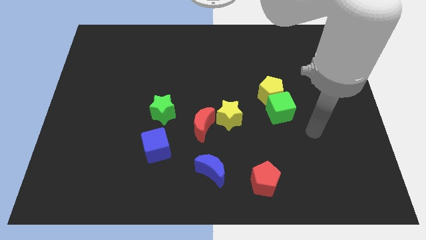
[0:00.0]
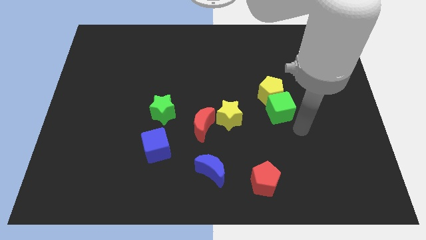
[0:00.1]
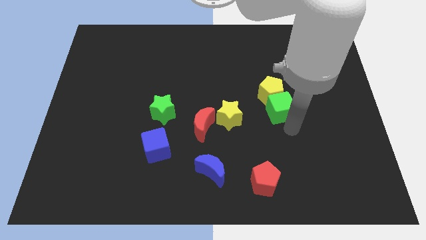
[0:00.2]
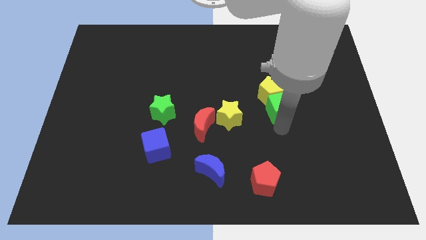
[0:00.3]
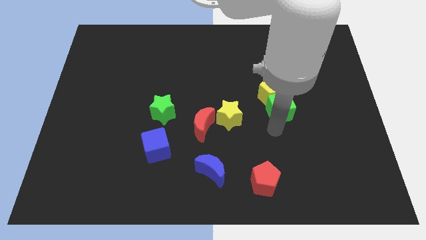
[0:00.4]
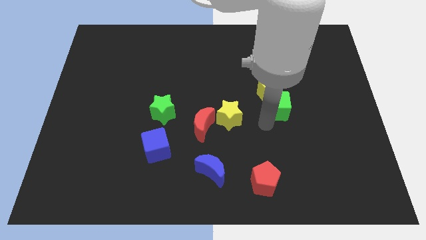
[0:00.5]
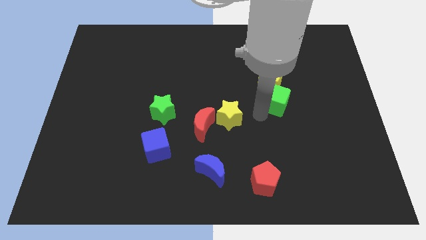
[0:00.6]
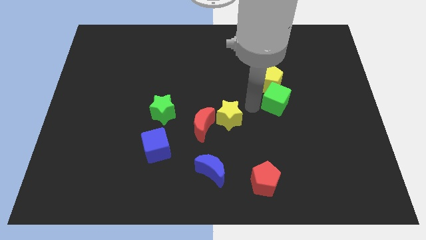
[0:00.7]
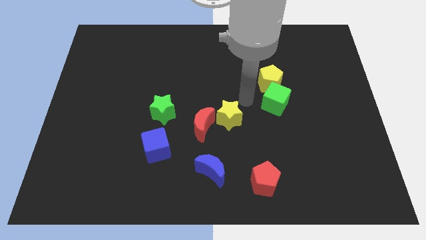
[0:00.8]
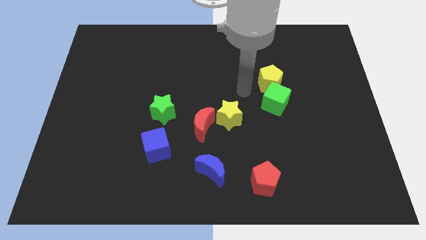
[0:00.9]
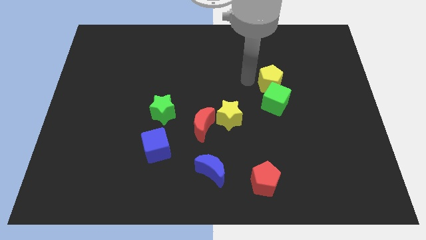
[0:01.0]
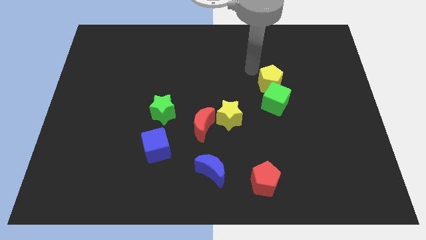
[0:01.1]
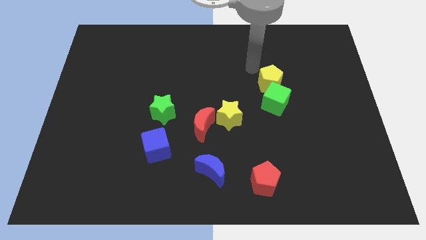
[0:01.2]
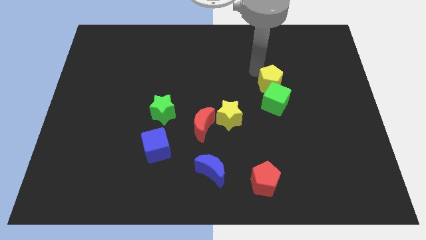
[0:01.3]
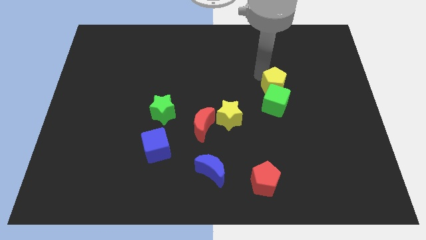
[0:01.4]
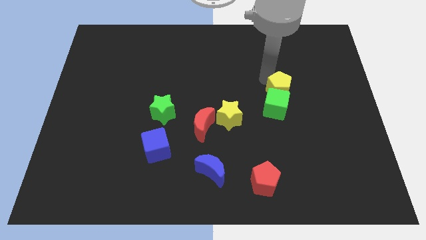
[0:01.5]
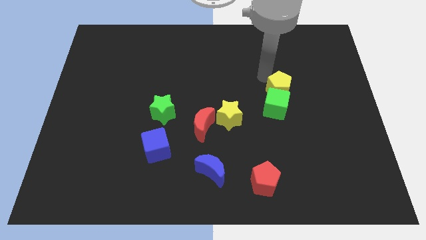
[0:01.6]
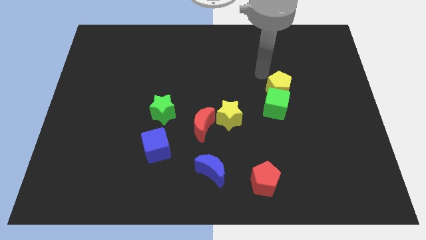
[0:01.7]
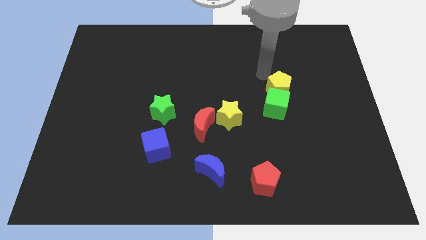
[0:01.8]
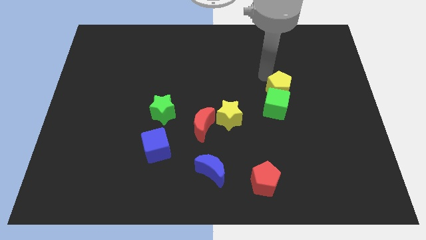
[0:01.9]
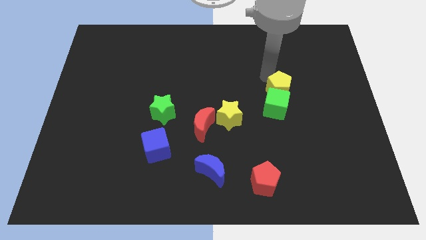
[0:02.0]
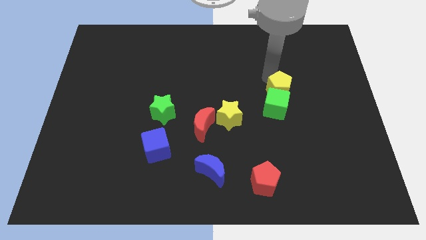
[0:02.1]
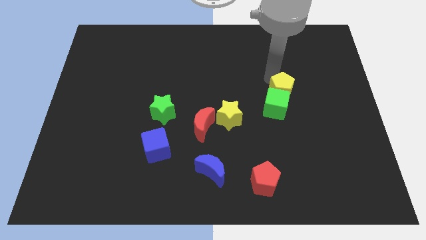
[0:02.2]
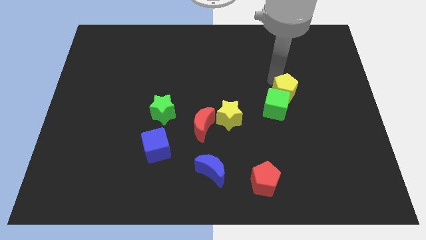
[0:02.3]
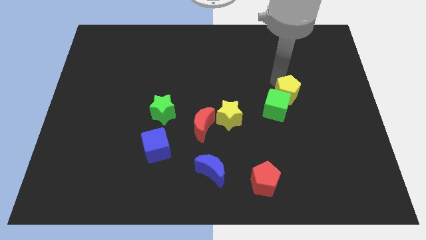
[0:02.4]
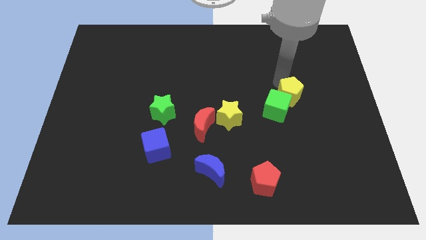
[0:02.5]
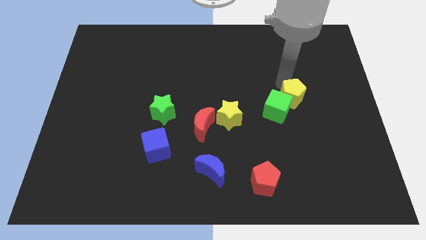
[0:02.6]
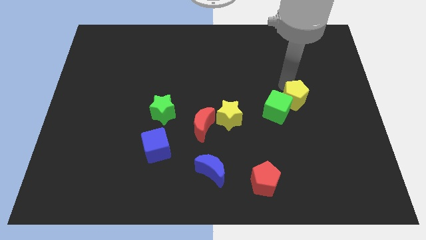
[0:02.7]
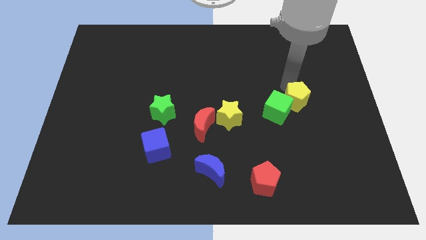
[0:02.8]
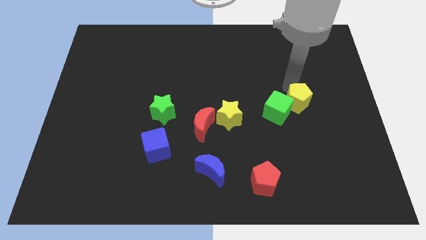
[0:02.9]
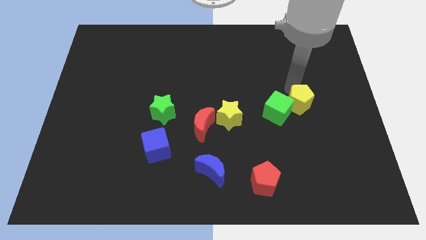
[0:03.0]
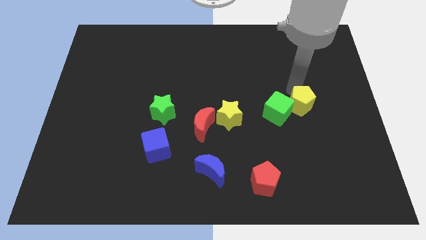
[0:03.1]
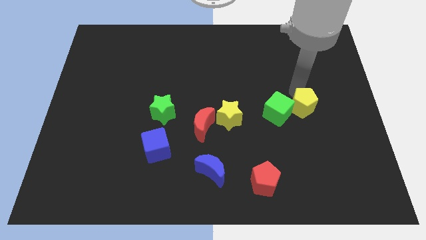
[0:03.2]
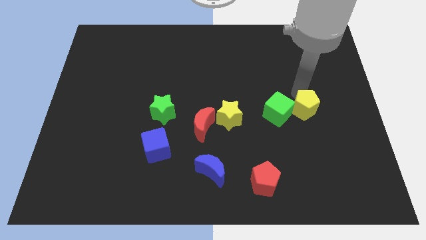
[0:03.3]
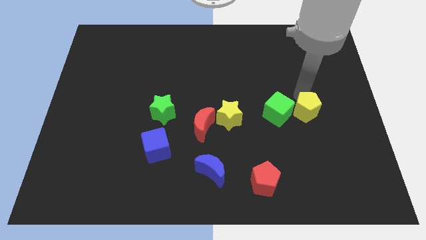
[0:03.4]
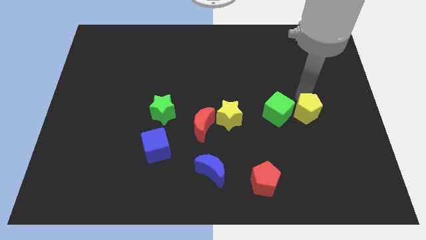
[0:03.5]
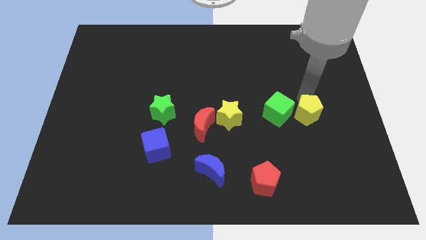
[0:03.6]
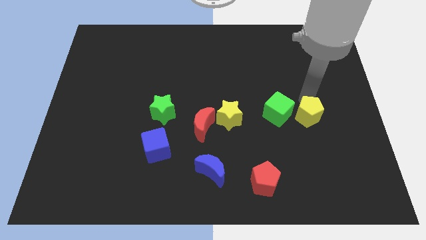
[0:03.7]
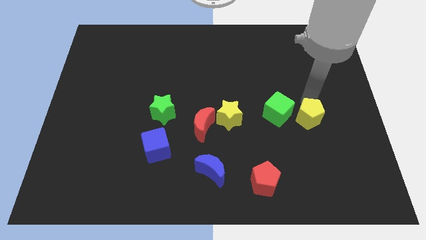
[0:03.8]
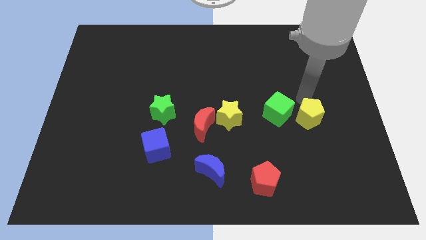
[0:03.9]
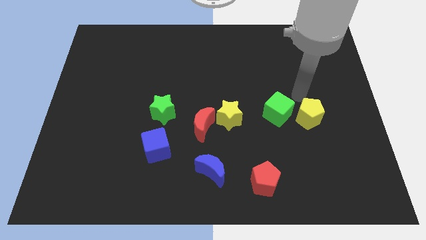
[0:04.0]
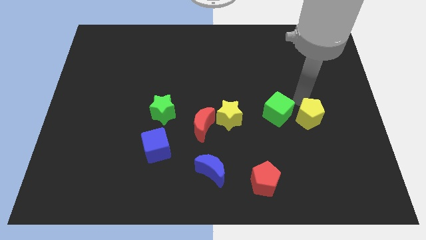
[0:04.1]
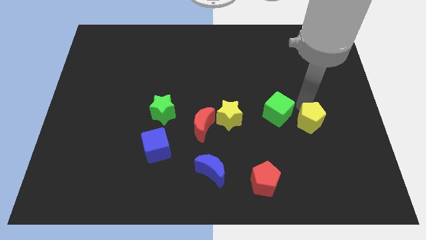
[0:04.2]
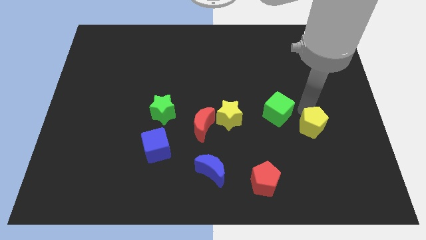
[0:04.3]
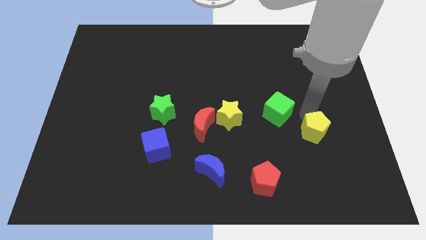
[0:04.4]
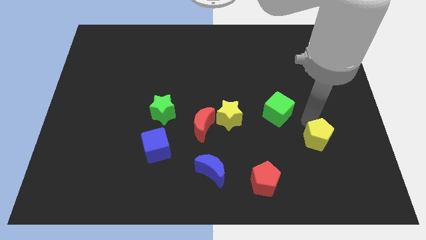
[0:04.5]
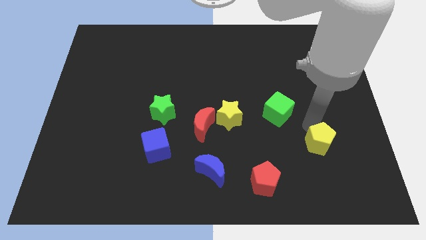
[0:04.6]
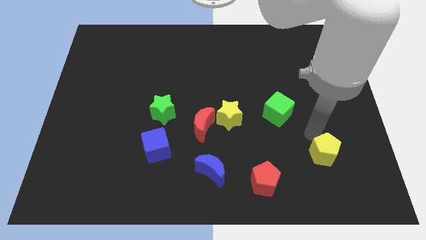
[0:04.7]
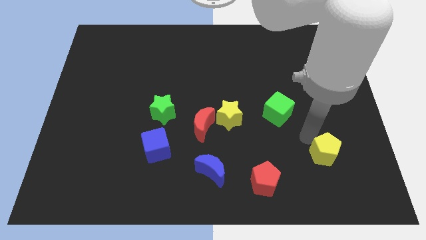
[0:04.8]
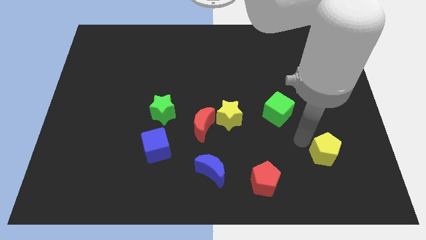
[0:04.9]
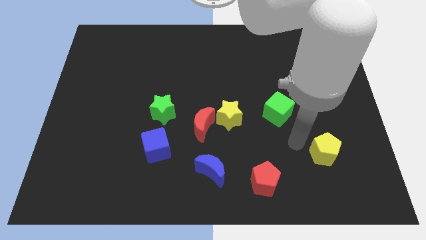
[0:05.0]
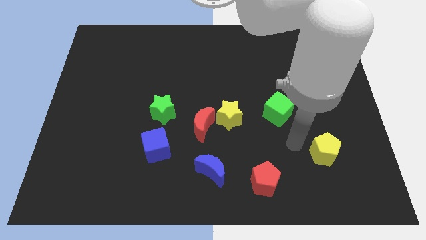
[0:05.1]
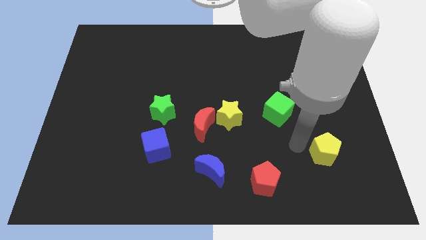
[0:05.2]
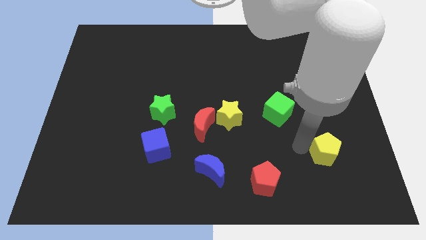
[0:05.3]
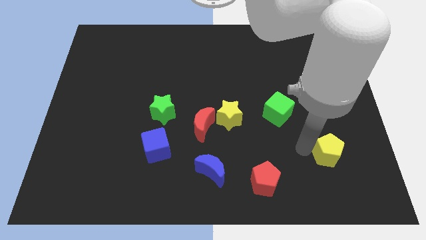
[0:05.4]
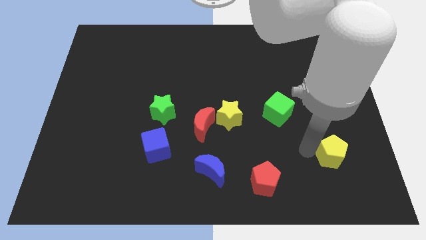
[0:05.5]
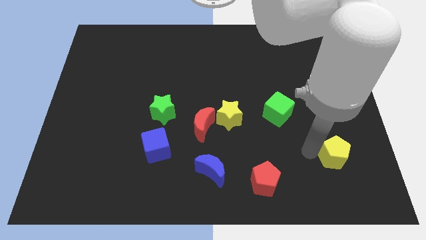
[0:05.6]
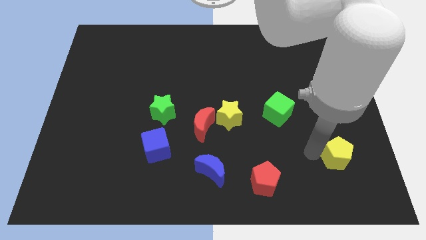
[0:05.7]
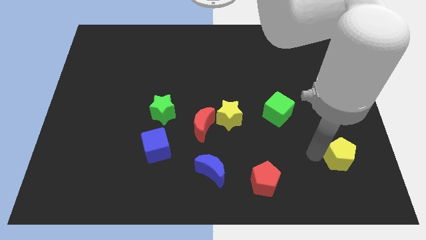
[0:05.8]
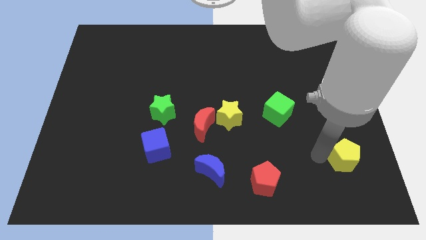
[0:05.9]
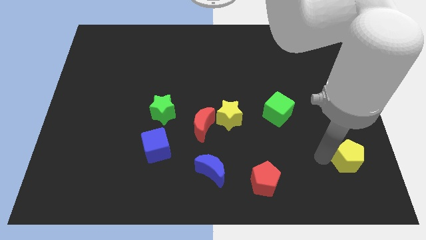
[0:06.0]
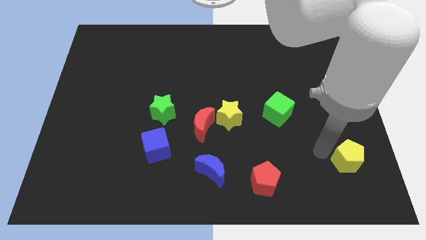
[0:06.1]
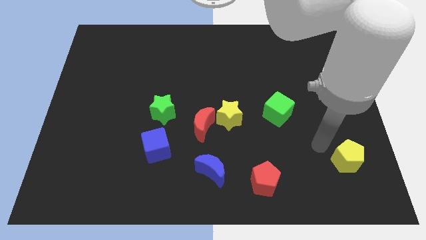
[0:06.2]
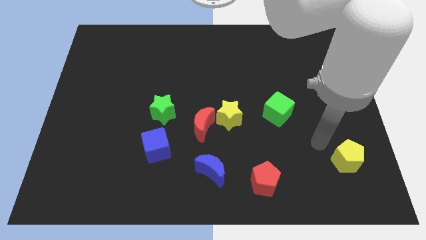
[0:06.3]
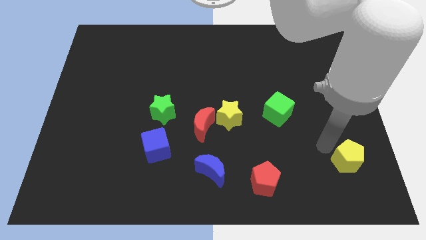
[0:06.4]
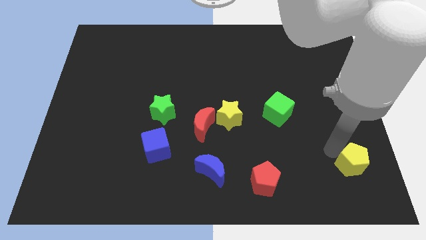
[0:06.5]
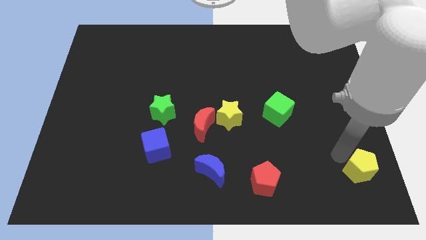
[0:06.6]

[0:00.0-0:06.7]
move the yellow pentagon to the bottom right of the board

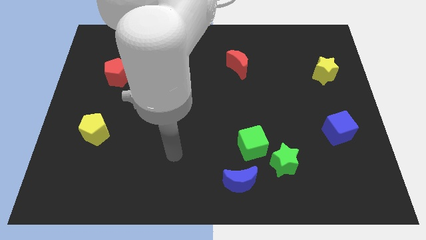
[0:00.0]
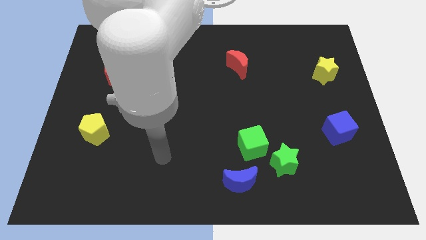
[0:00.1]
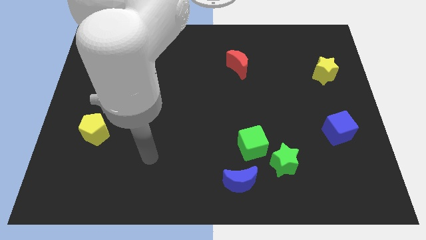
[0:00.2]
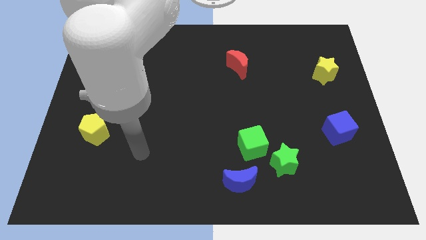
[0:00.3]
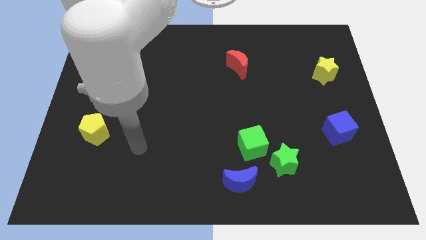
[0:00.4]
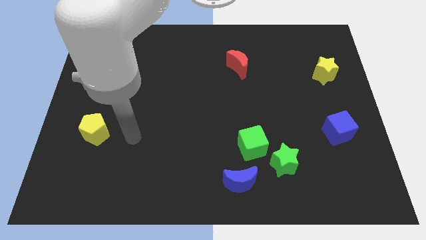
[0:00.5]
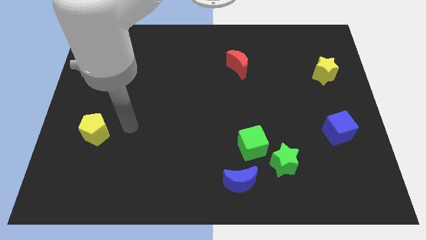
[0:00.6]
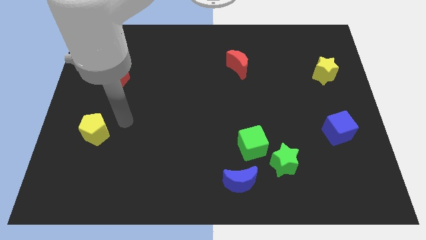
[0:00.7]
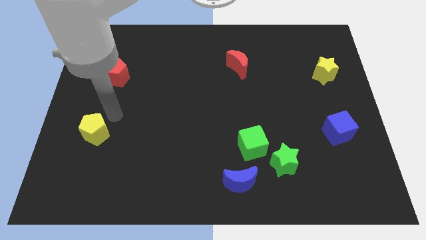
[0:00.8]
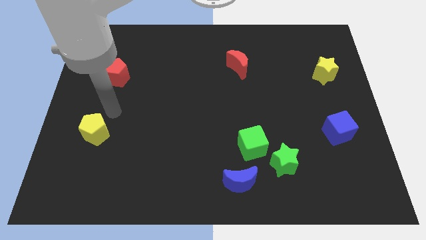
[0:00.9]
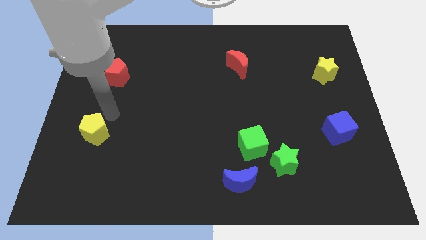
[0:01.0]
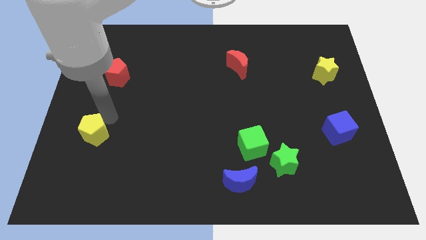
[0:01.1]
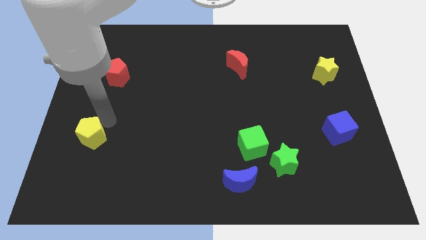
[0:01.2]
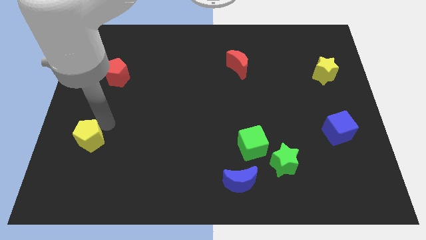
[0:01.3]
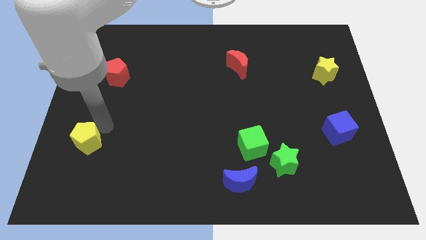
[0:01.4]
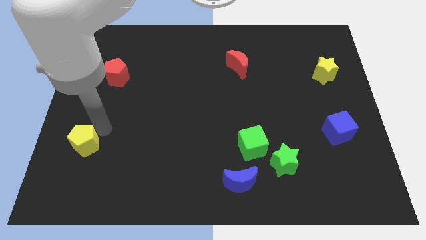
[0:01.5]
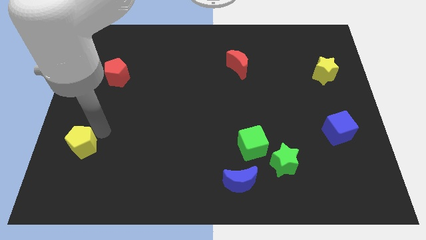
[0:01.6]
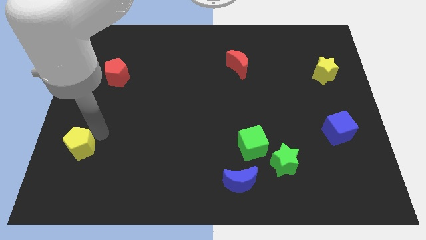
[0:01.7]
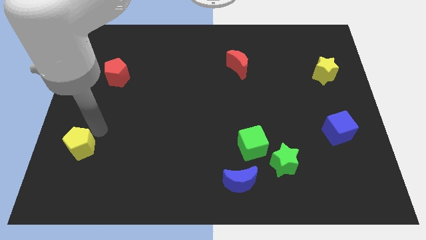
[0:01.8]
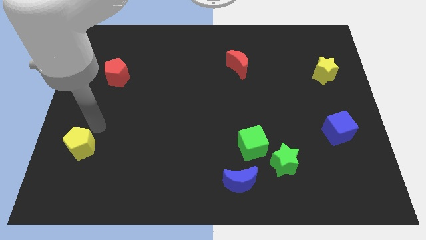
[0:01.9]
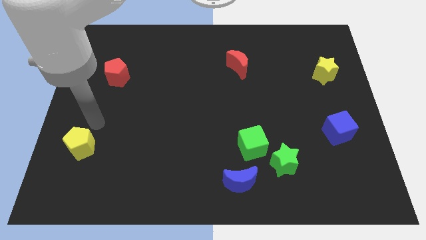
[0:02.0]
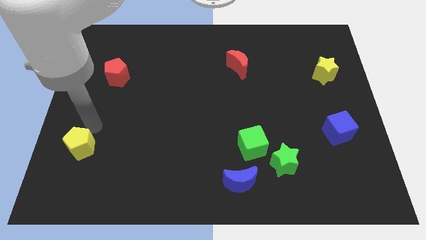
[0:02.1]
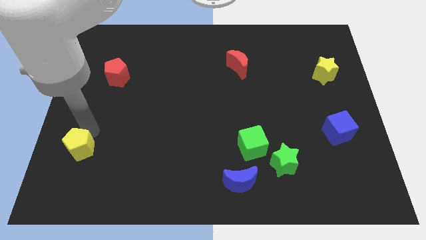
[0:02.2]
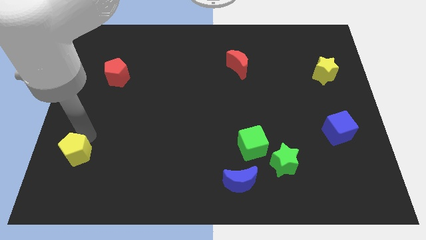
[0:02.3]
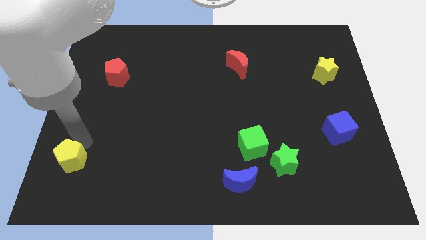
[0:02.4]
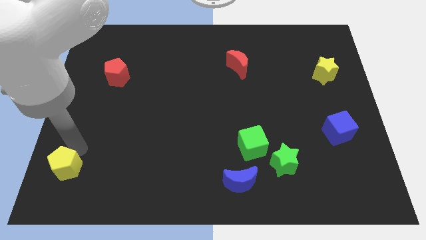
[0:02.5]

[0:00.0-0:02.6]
slide the yellow pentagon to the bottom left corner
